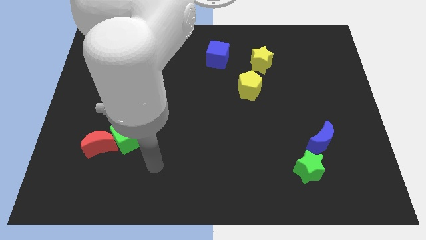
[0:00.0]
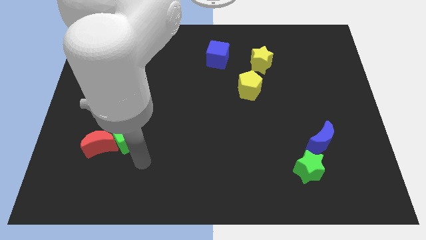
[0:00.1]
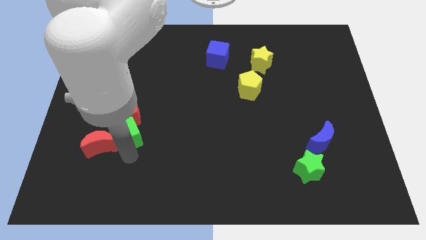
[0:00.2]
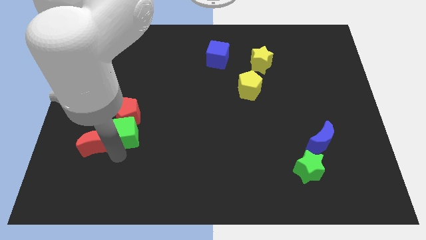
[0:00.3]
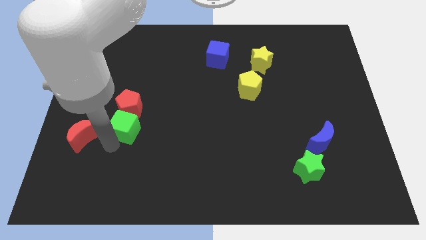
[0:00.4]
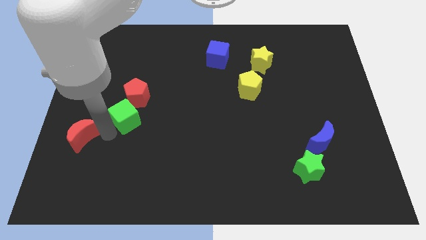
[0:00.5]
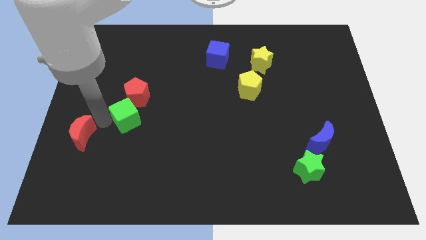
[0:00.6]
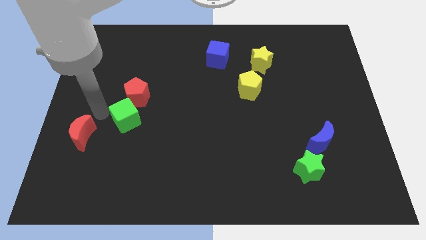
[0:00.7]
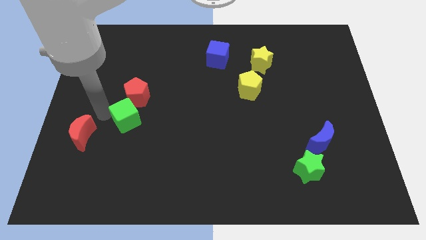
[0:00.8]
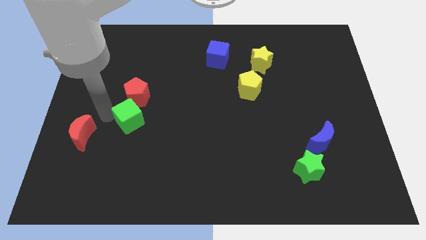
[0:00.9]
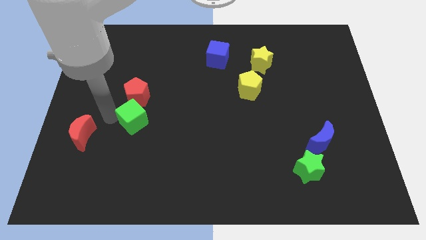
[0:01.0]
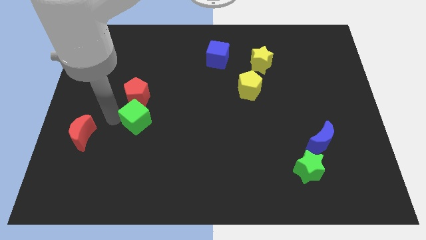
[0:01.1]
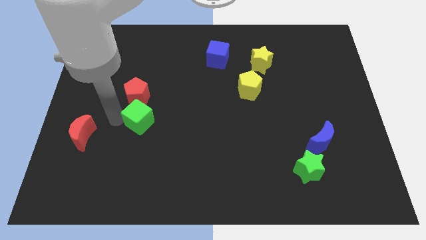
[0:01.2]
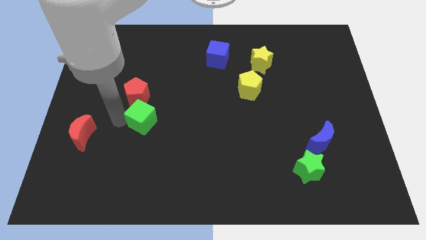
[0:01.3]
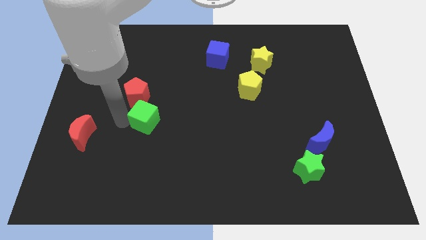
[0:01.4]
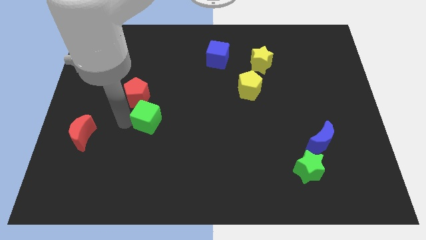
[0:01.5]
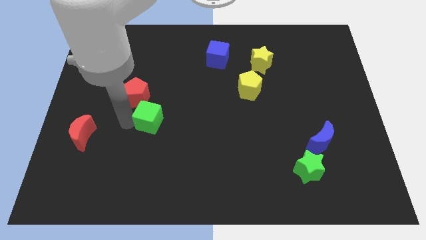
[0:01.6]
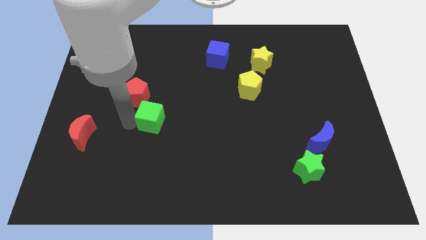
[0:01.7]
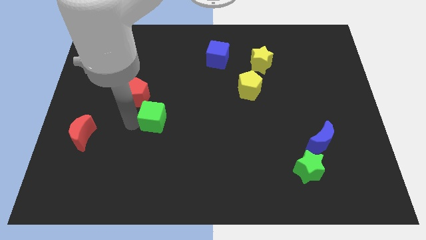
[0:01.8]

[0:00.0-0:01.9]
move the green cube away from the red pentagon and red moon

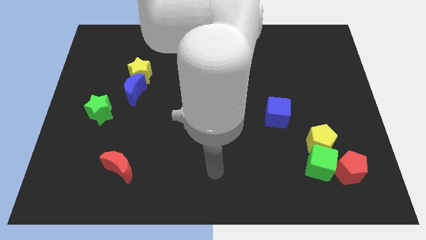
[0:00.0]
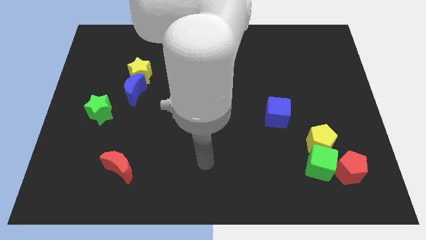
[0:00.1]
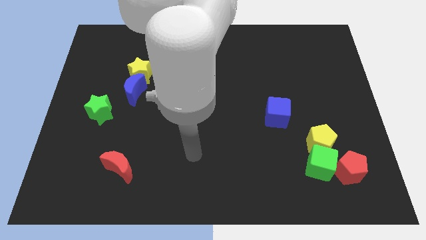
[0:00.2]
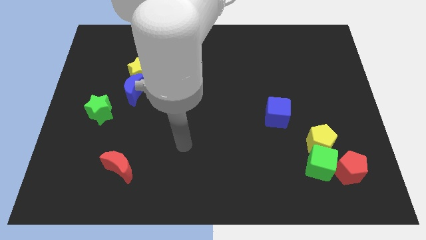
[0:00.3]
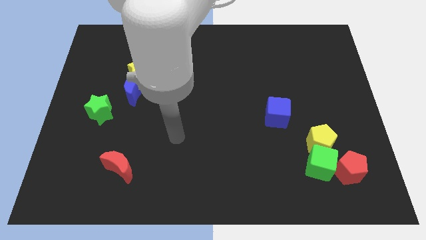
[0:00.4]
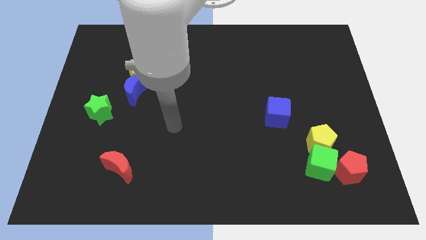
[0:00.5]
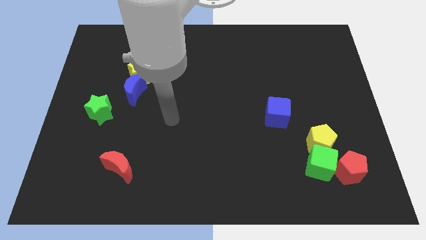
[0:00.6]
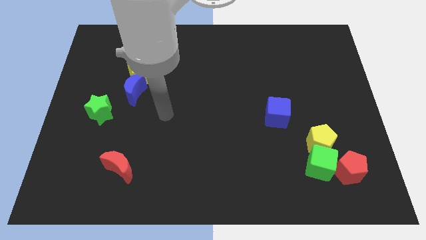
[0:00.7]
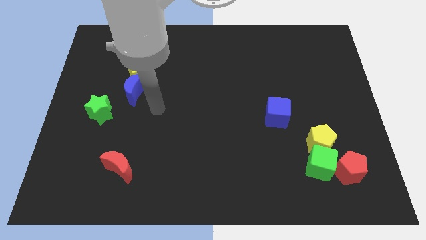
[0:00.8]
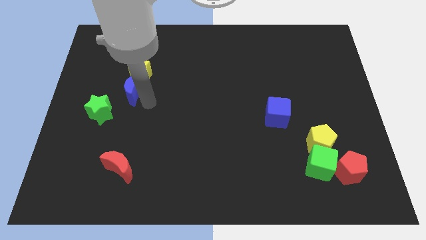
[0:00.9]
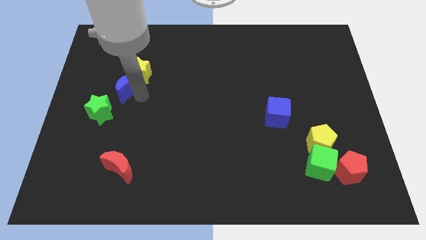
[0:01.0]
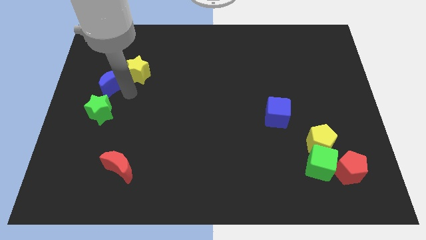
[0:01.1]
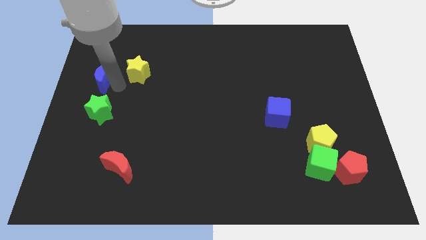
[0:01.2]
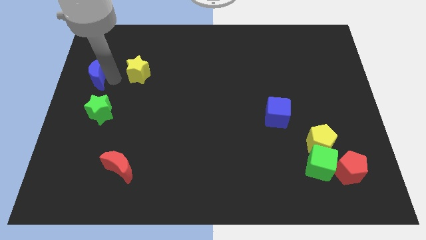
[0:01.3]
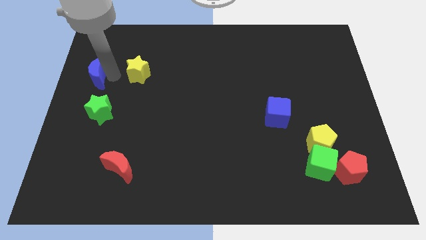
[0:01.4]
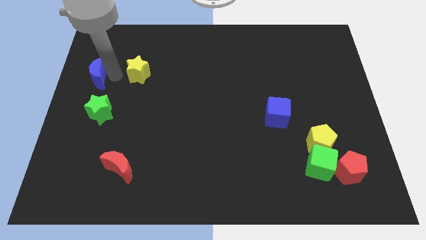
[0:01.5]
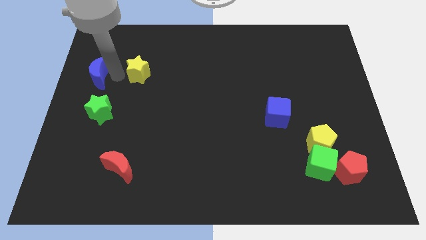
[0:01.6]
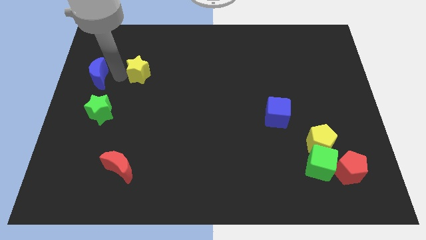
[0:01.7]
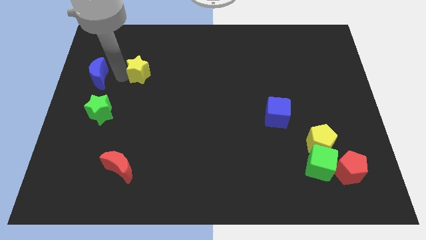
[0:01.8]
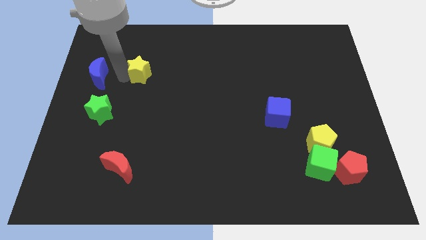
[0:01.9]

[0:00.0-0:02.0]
pull the yellow star apart from the blue moon

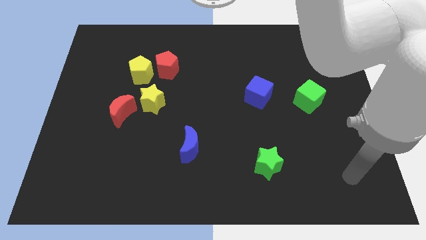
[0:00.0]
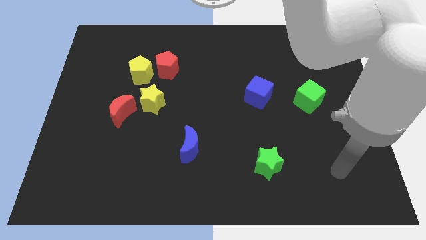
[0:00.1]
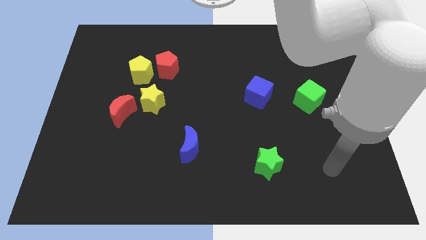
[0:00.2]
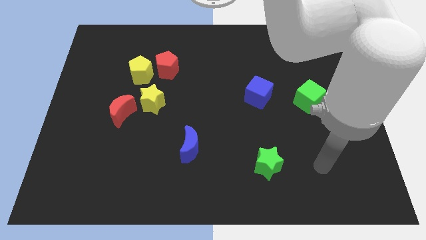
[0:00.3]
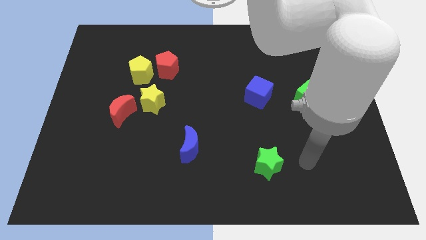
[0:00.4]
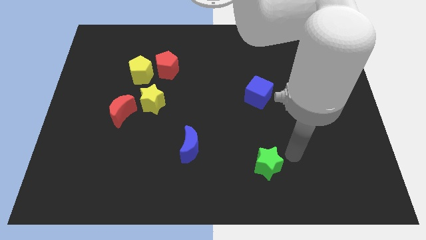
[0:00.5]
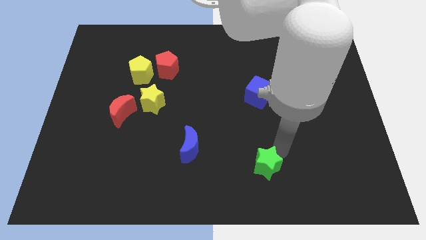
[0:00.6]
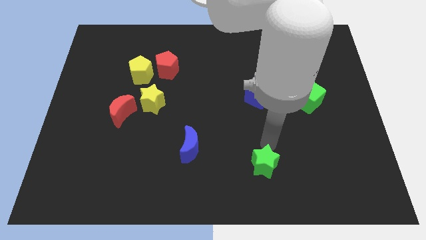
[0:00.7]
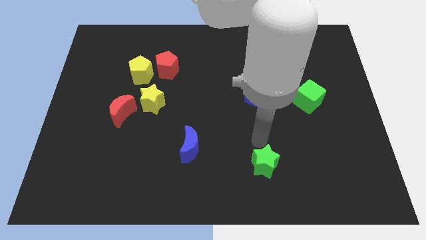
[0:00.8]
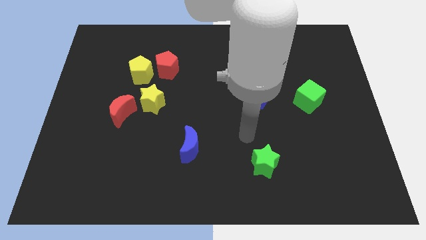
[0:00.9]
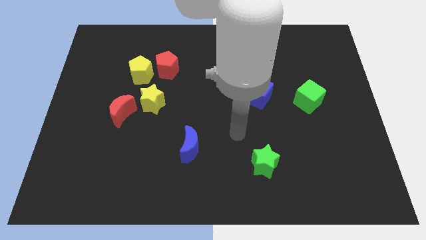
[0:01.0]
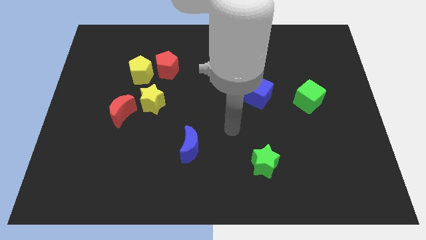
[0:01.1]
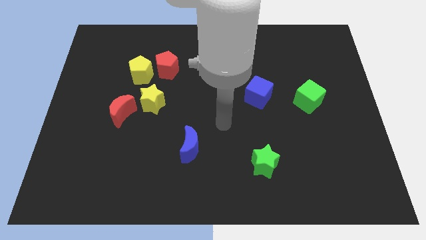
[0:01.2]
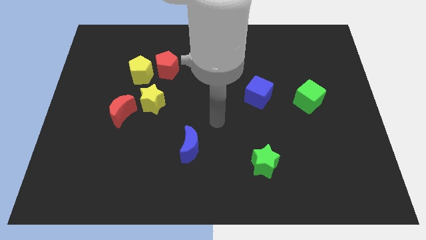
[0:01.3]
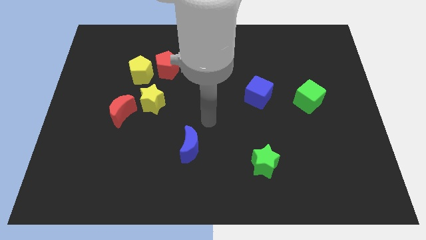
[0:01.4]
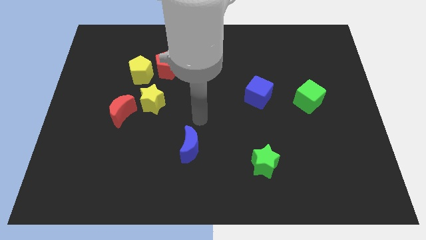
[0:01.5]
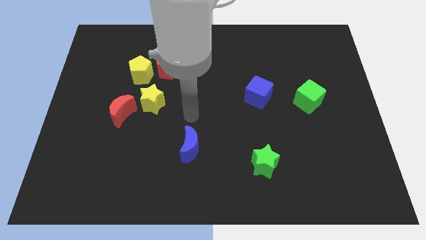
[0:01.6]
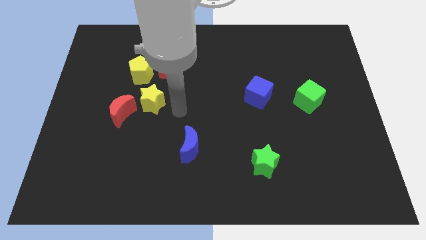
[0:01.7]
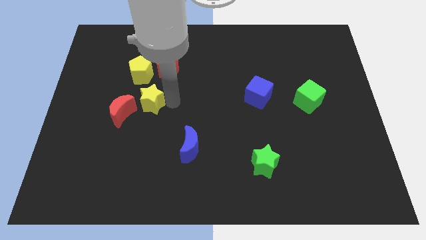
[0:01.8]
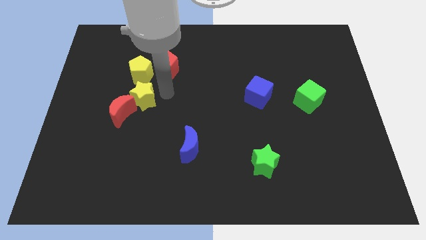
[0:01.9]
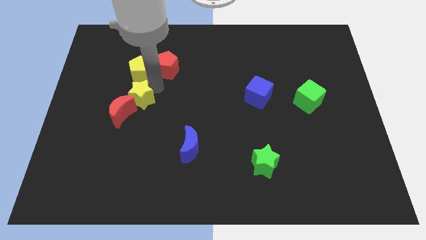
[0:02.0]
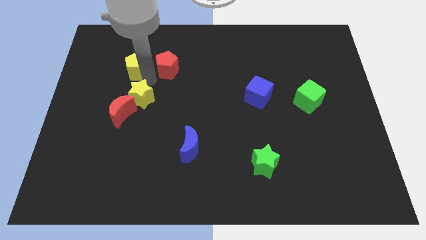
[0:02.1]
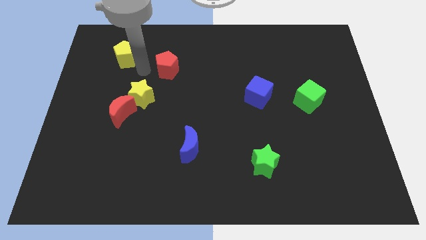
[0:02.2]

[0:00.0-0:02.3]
move the red pentagon away from the yellow pentagon

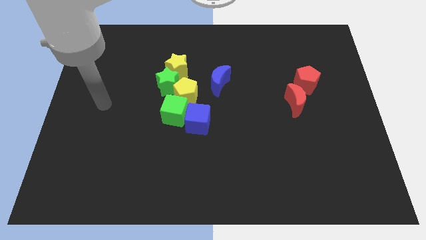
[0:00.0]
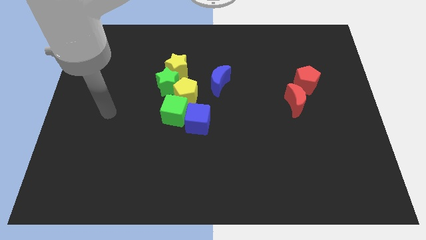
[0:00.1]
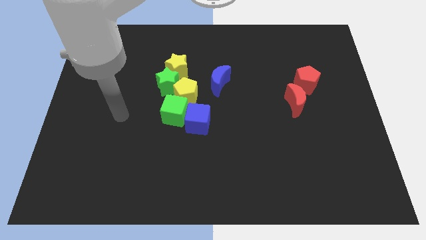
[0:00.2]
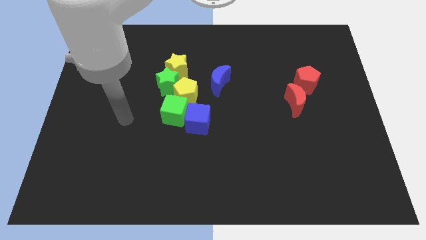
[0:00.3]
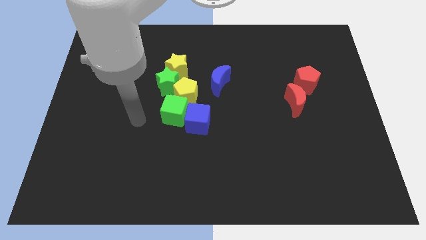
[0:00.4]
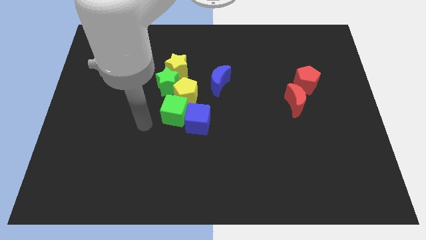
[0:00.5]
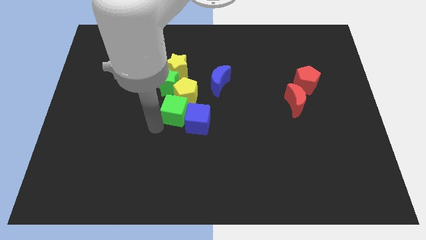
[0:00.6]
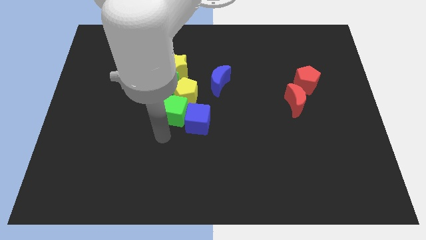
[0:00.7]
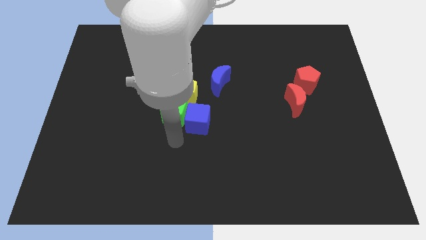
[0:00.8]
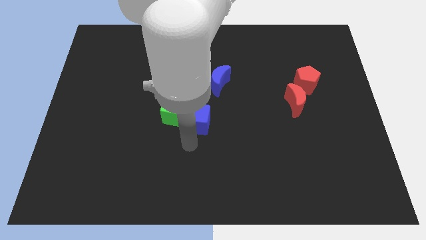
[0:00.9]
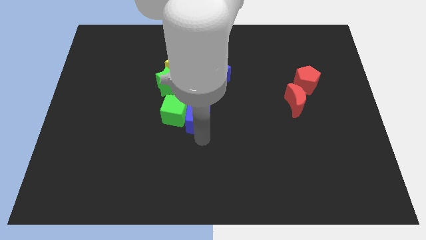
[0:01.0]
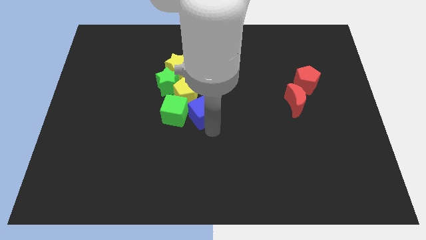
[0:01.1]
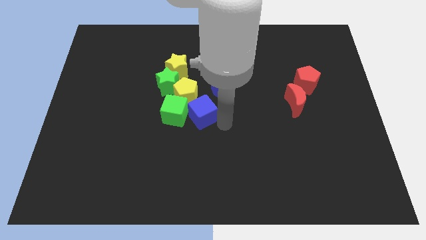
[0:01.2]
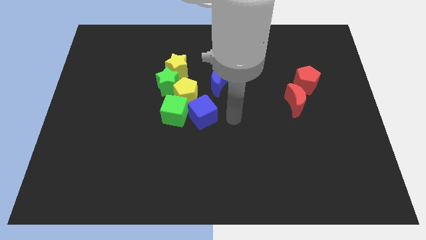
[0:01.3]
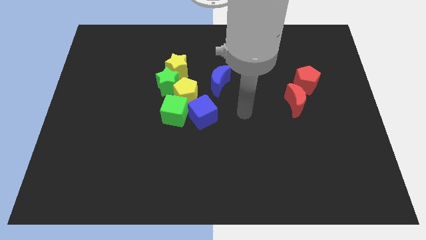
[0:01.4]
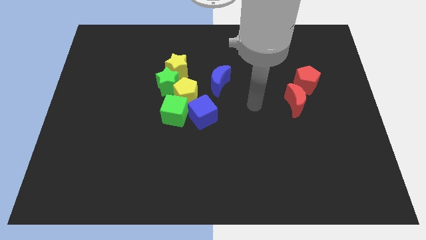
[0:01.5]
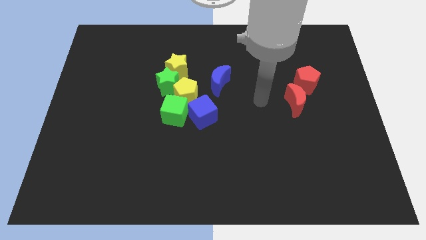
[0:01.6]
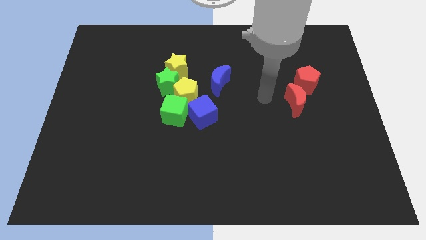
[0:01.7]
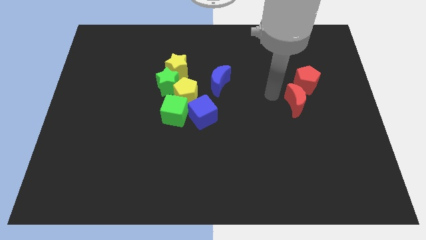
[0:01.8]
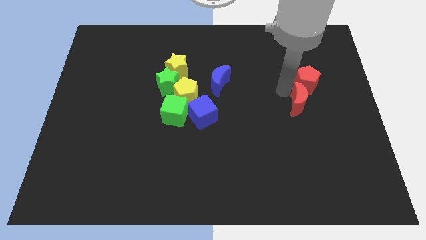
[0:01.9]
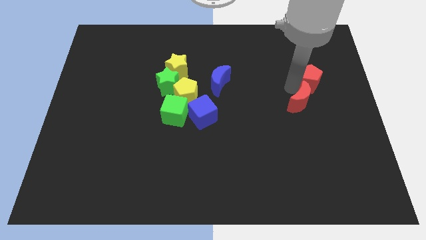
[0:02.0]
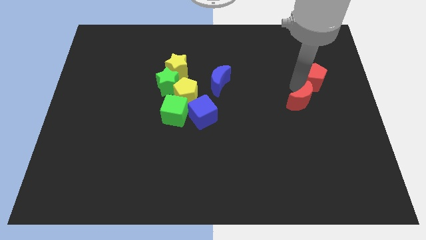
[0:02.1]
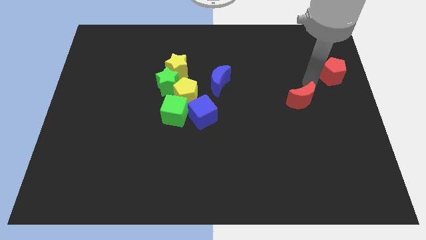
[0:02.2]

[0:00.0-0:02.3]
separate the red moon from the red pentagon

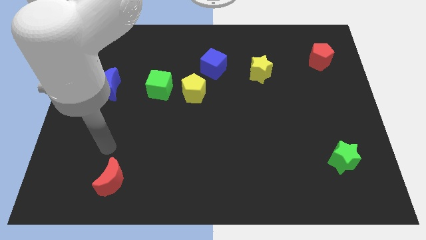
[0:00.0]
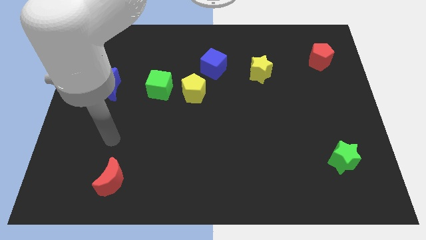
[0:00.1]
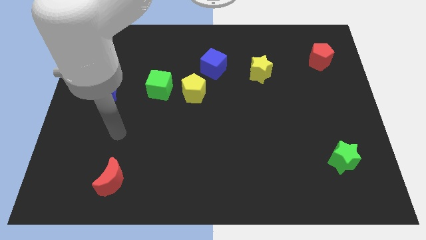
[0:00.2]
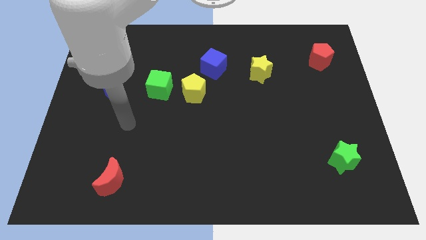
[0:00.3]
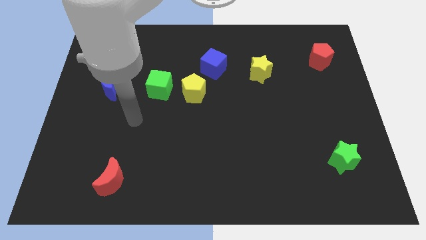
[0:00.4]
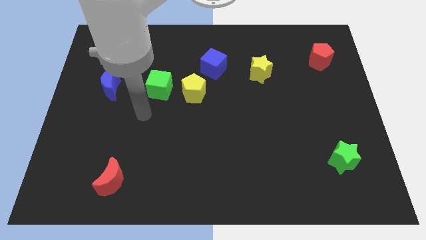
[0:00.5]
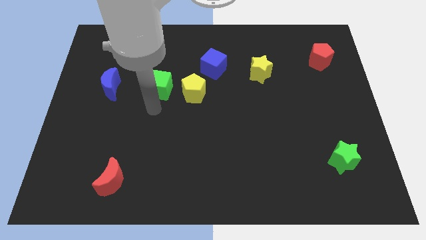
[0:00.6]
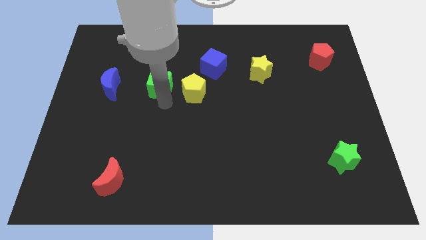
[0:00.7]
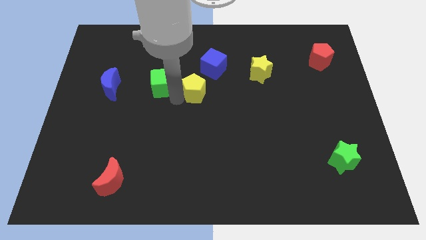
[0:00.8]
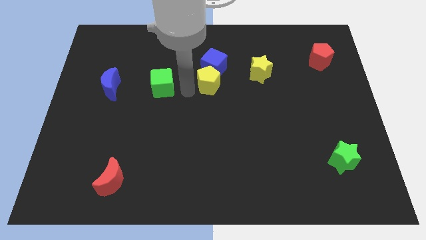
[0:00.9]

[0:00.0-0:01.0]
move the green cube away from the yellow pentagon
